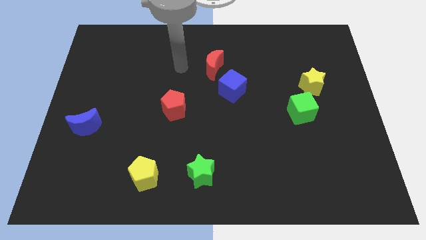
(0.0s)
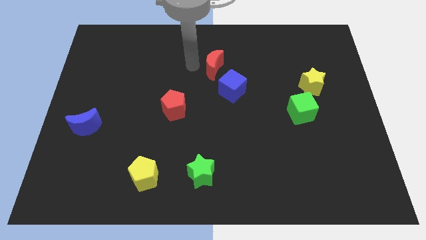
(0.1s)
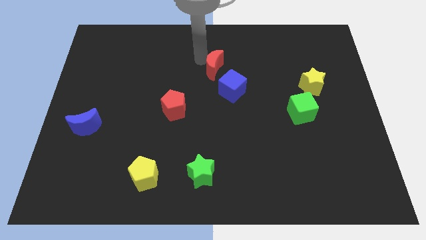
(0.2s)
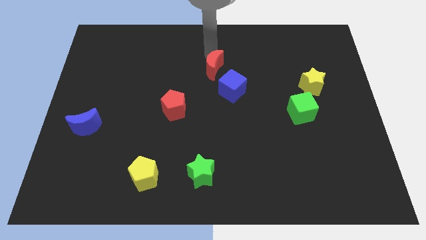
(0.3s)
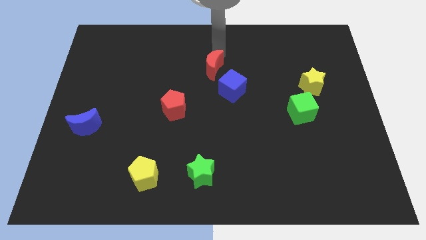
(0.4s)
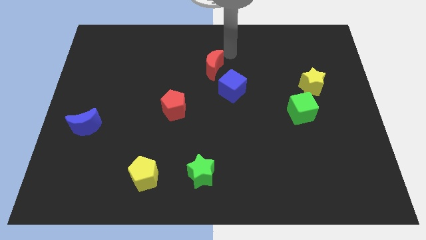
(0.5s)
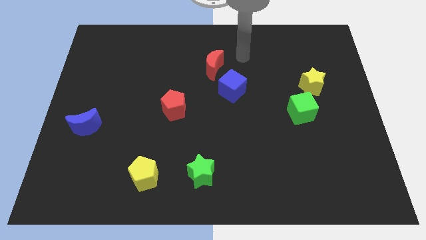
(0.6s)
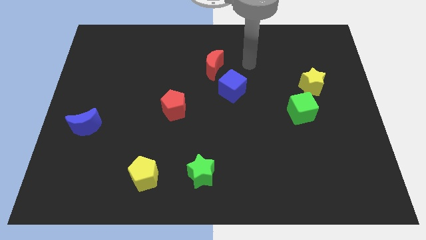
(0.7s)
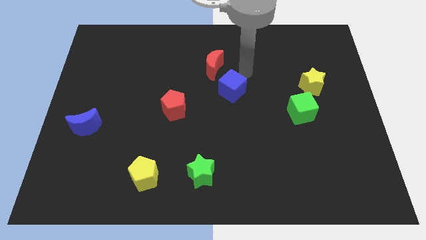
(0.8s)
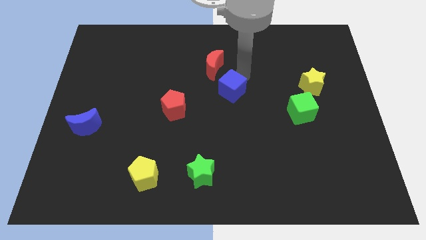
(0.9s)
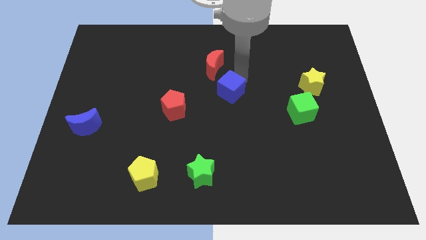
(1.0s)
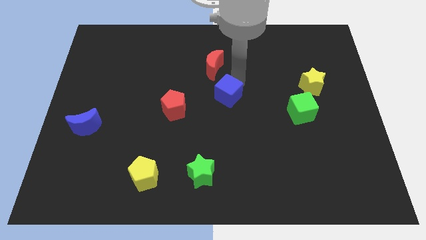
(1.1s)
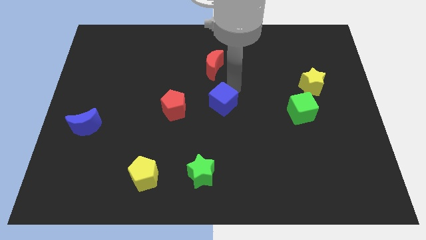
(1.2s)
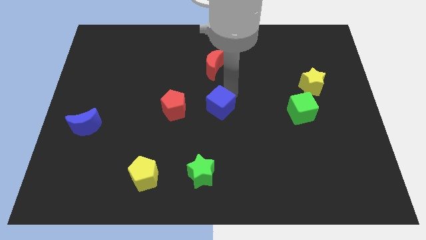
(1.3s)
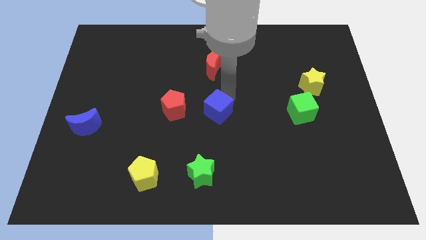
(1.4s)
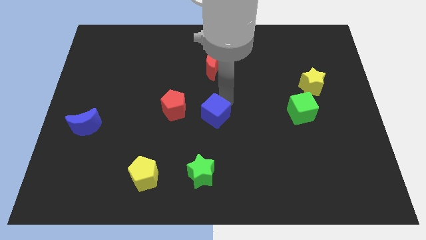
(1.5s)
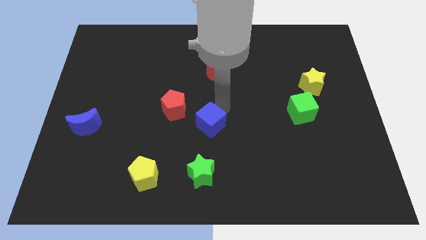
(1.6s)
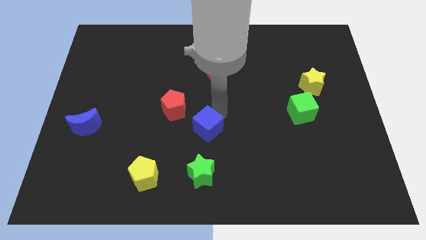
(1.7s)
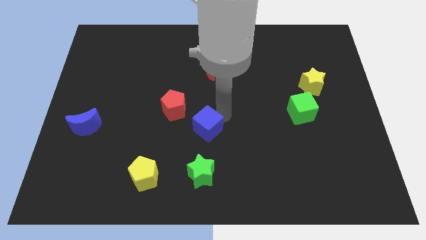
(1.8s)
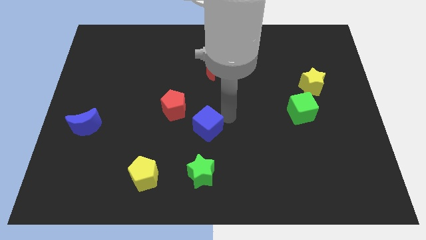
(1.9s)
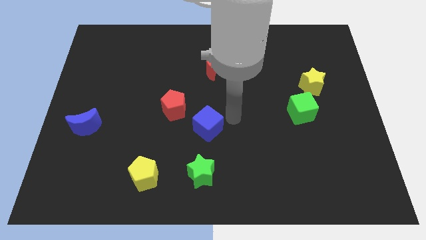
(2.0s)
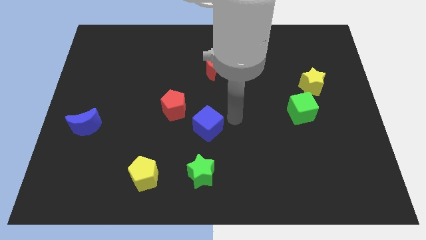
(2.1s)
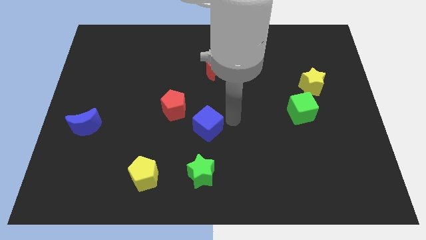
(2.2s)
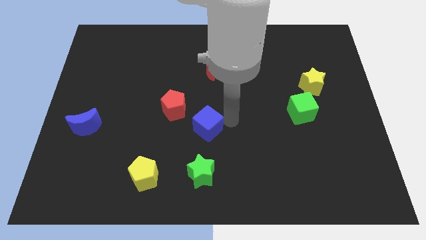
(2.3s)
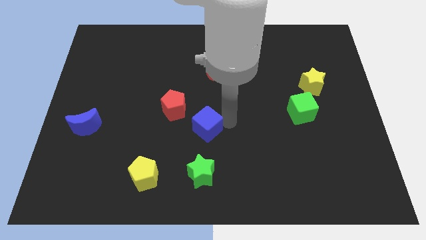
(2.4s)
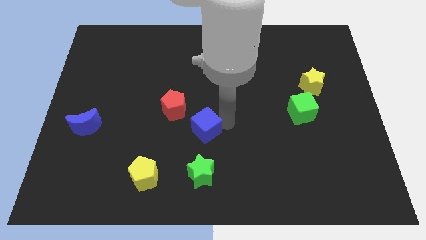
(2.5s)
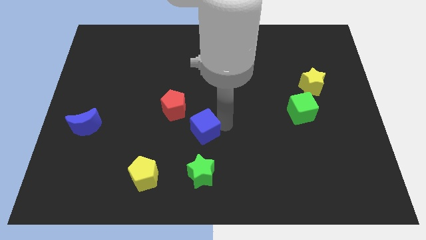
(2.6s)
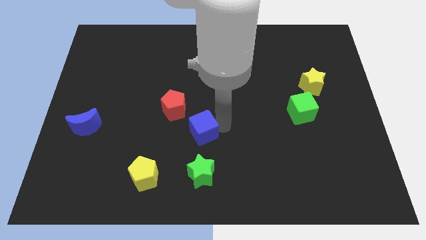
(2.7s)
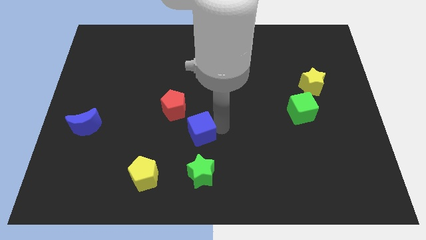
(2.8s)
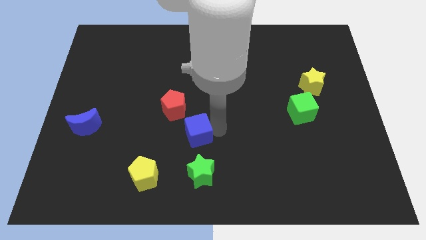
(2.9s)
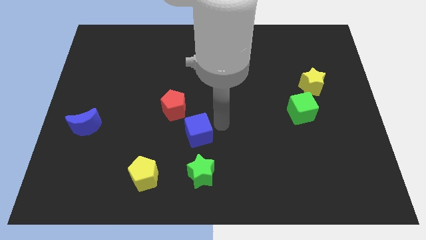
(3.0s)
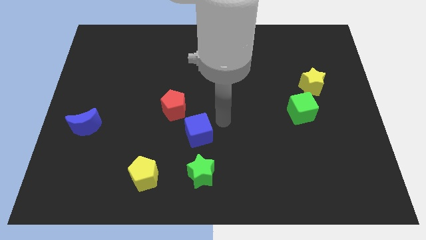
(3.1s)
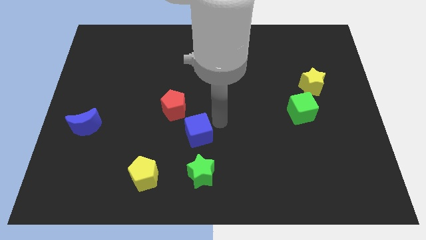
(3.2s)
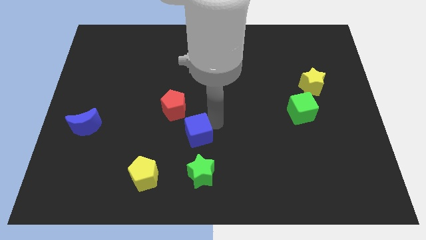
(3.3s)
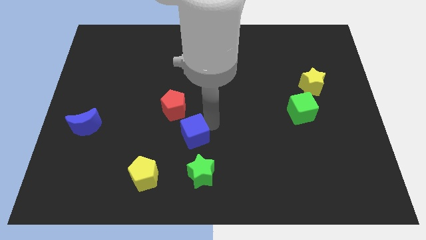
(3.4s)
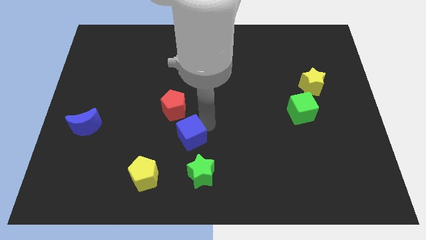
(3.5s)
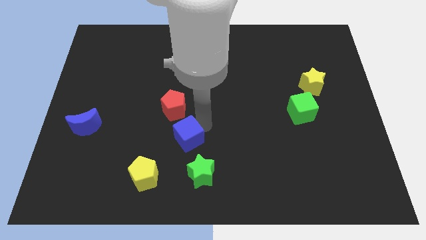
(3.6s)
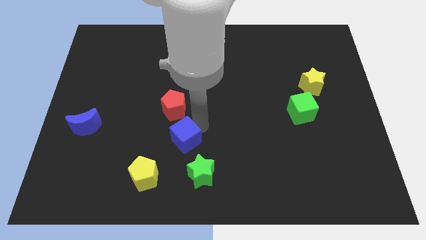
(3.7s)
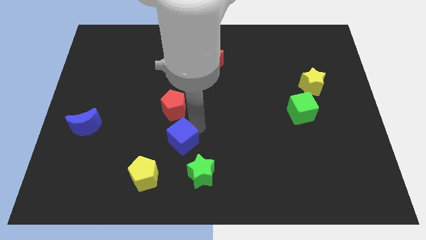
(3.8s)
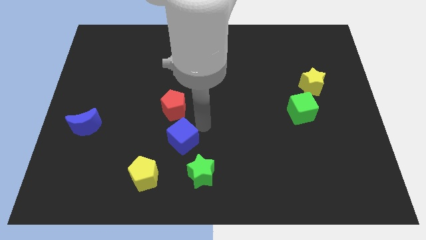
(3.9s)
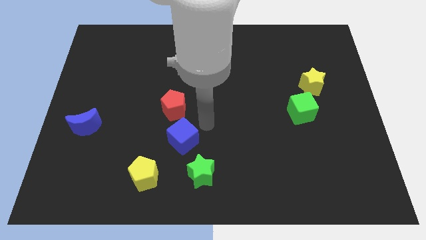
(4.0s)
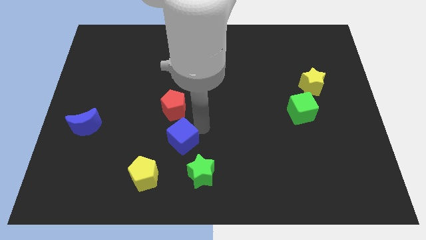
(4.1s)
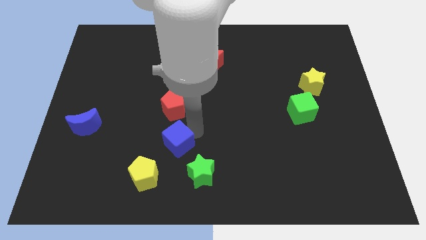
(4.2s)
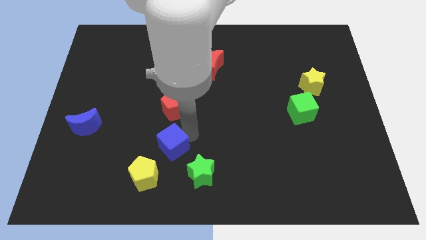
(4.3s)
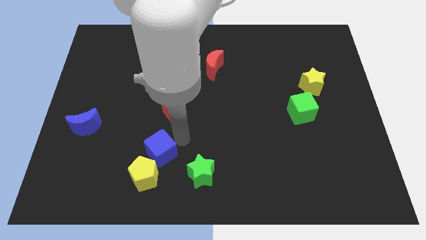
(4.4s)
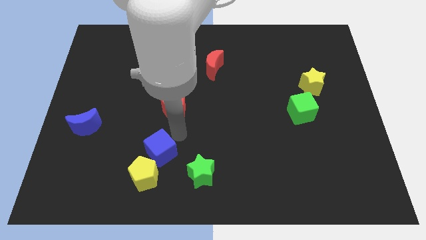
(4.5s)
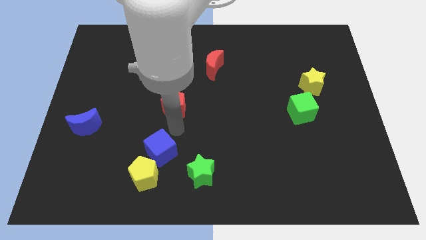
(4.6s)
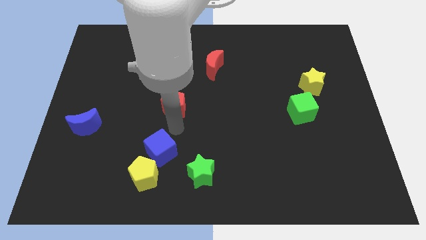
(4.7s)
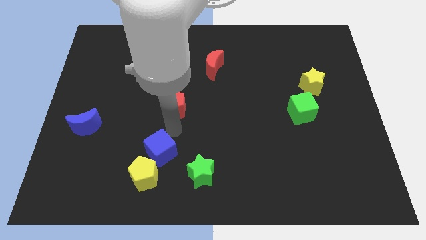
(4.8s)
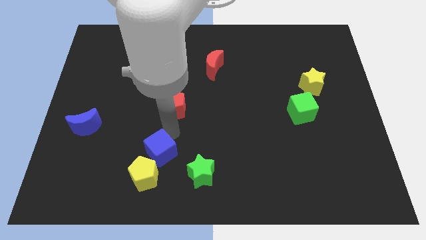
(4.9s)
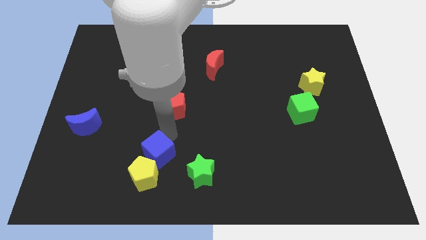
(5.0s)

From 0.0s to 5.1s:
put the blue cube close to the yellow pentagon

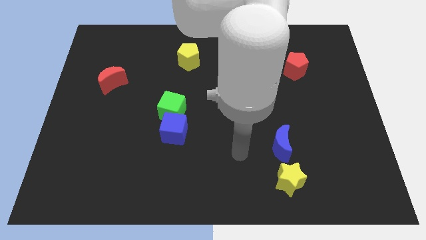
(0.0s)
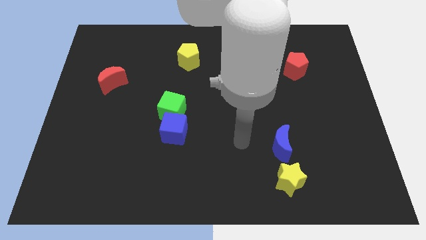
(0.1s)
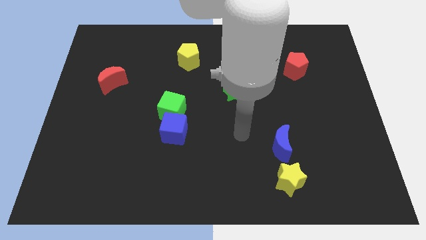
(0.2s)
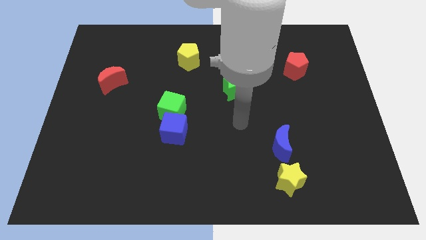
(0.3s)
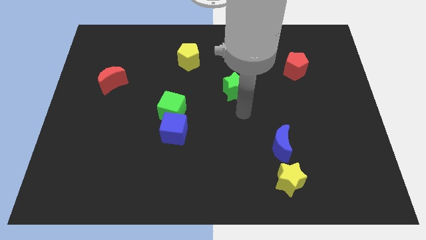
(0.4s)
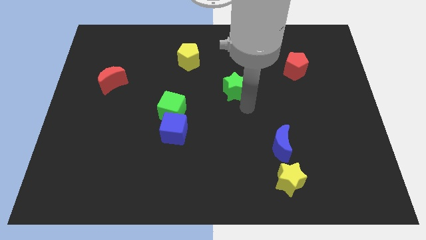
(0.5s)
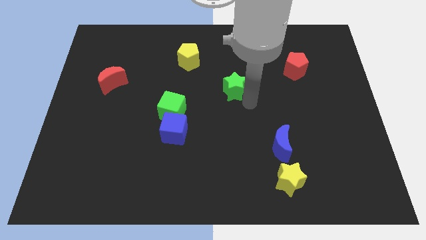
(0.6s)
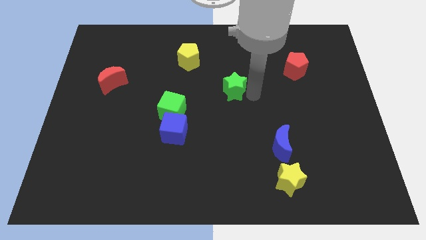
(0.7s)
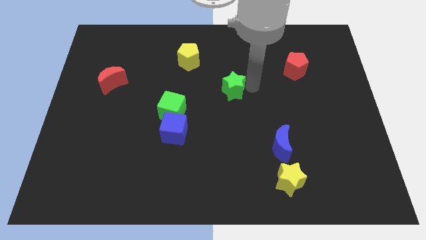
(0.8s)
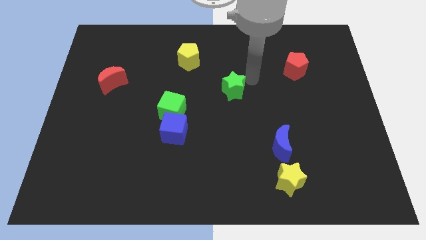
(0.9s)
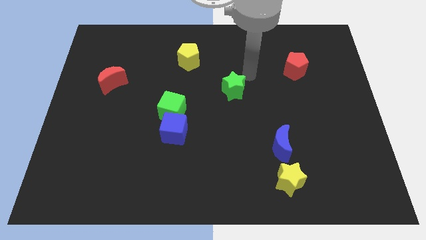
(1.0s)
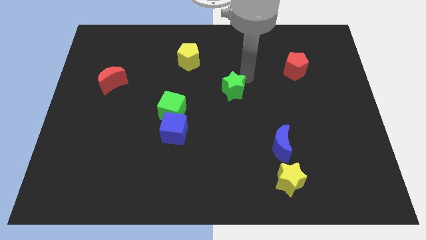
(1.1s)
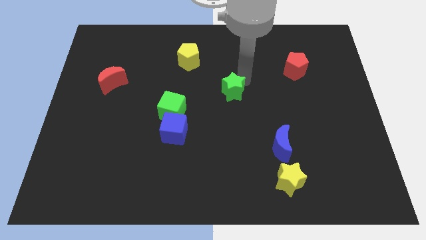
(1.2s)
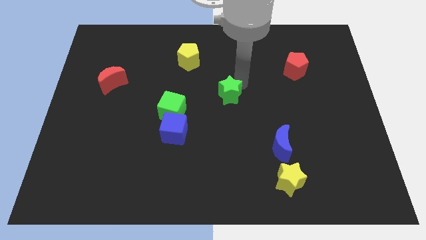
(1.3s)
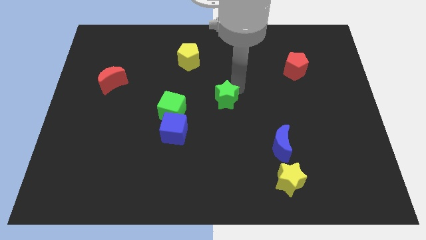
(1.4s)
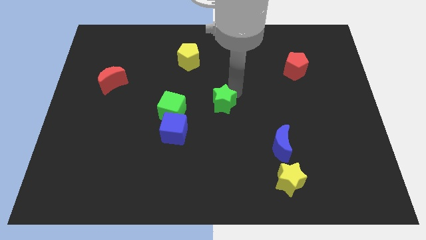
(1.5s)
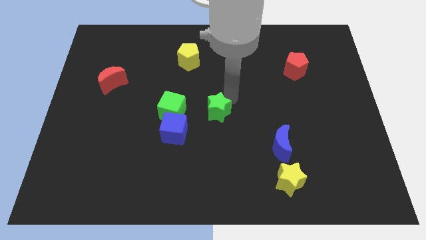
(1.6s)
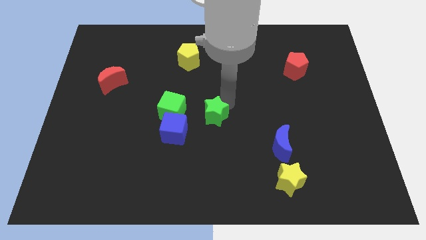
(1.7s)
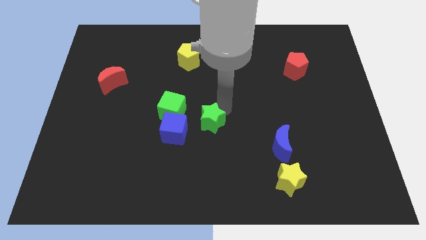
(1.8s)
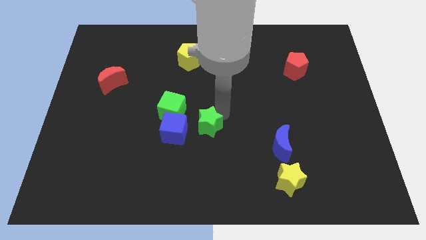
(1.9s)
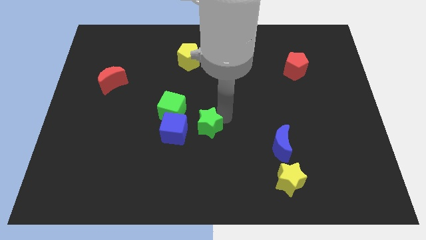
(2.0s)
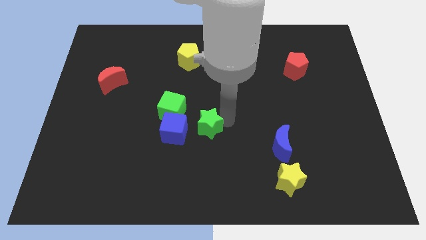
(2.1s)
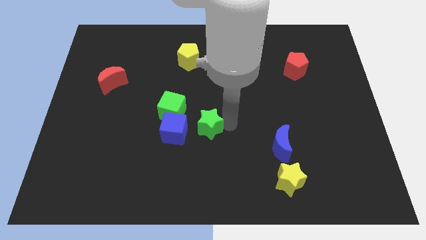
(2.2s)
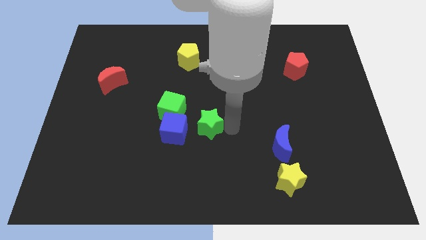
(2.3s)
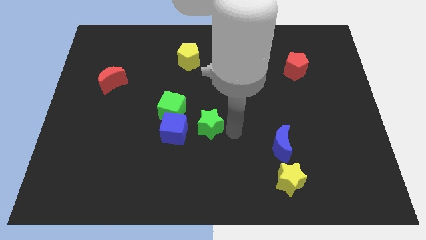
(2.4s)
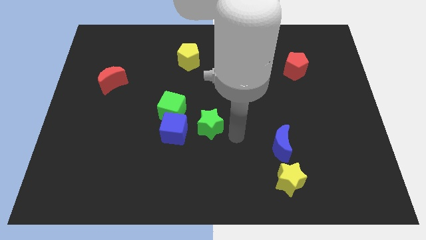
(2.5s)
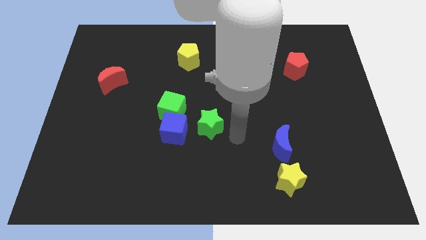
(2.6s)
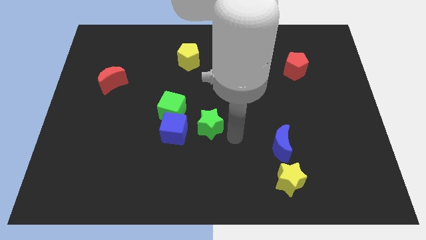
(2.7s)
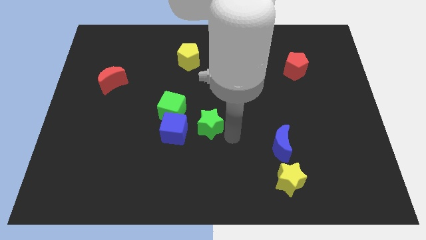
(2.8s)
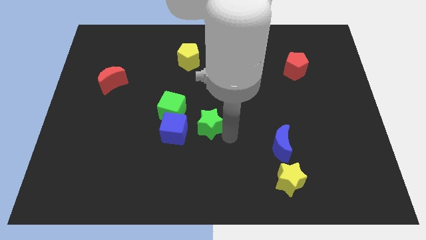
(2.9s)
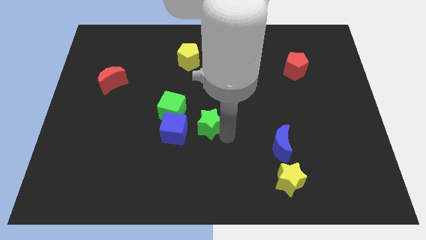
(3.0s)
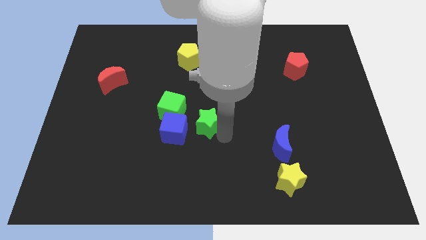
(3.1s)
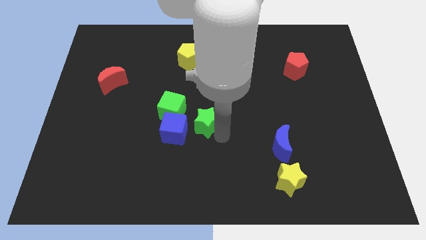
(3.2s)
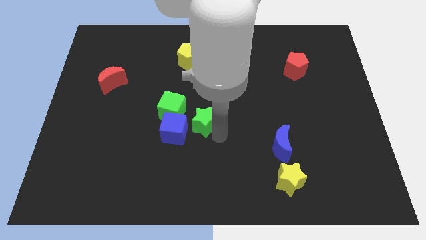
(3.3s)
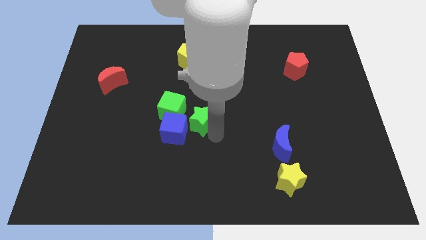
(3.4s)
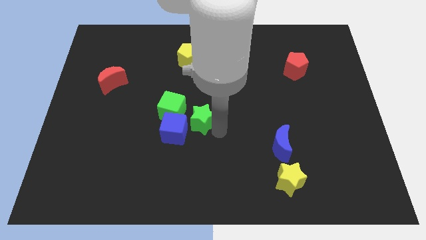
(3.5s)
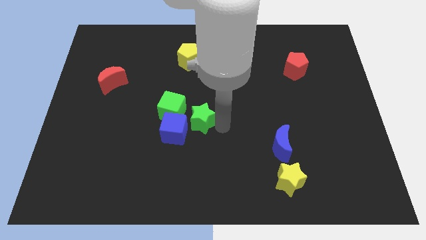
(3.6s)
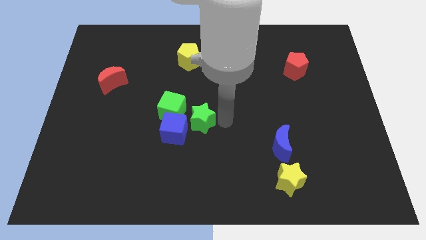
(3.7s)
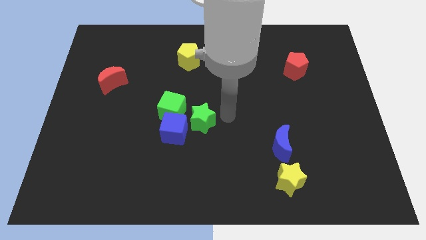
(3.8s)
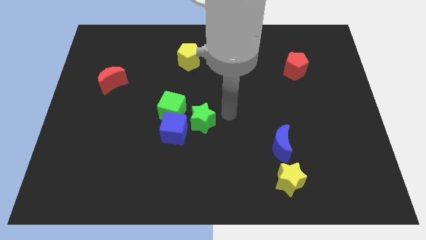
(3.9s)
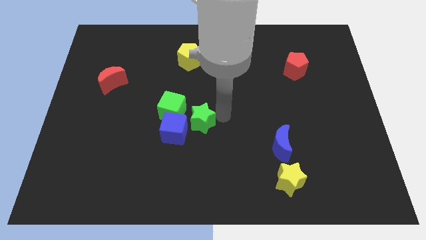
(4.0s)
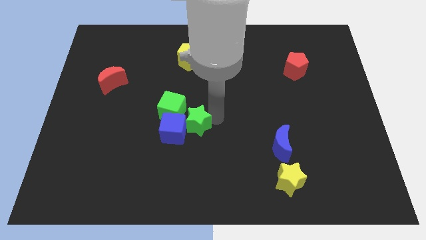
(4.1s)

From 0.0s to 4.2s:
put the green star next to the blue cube
